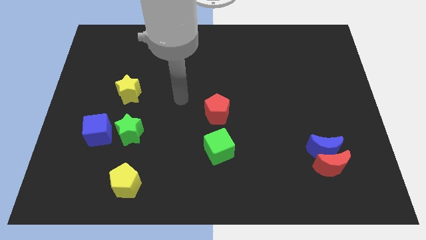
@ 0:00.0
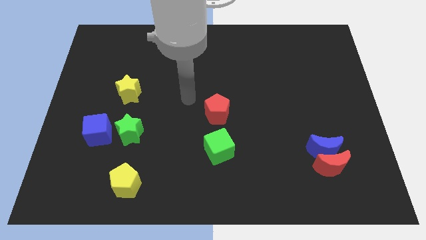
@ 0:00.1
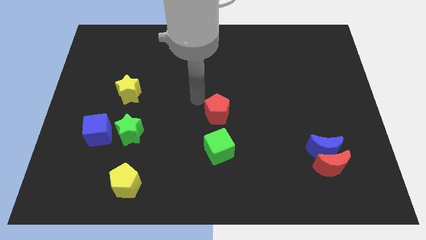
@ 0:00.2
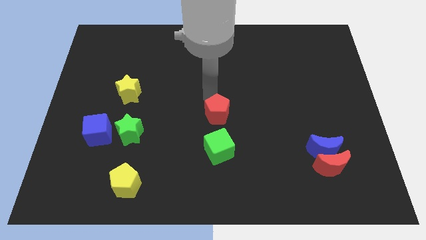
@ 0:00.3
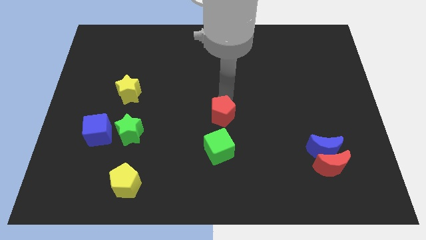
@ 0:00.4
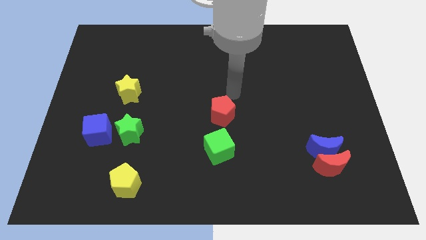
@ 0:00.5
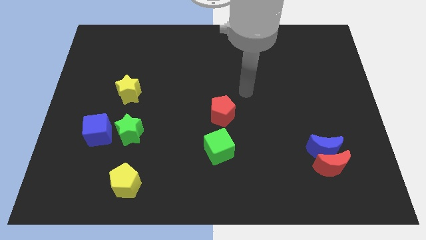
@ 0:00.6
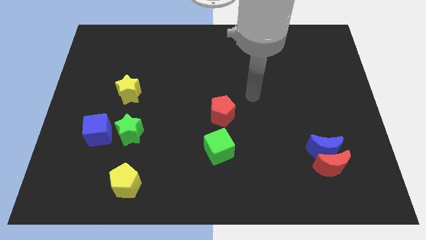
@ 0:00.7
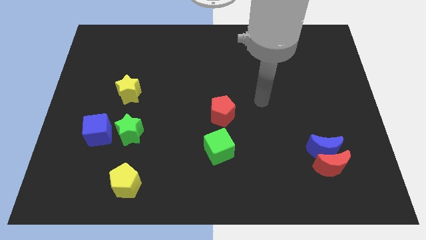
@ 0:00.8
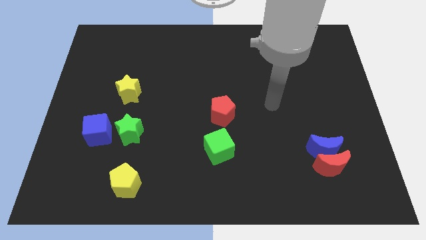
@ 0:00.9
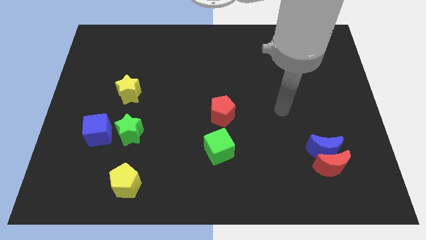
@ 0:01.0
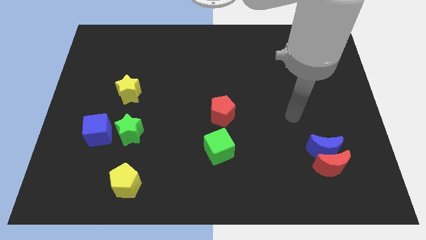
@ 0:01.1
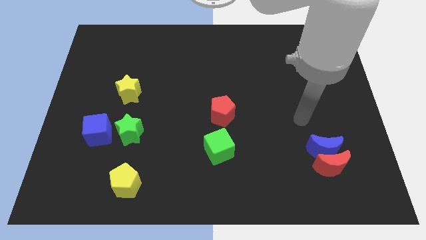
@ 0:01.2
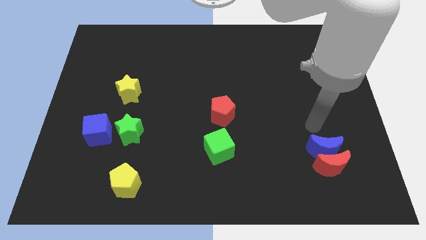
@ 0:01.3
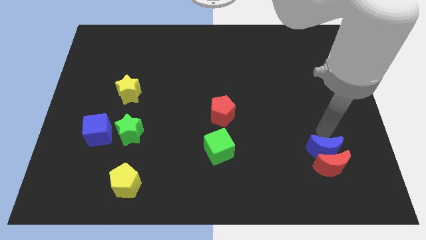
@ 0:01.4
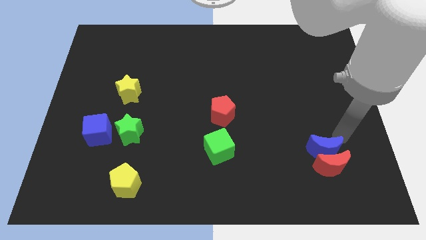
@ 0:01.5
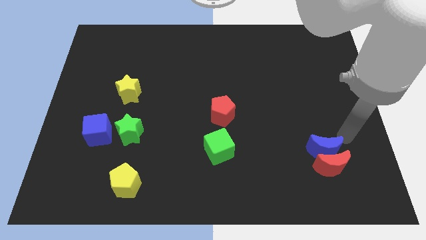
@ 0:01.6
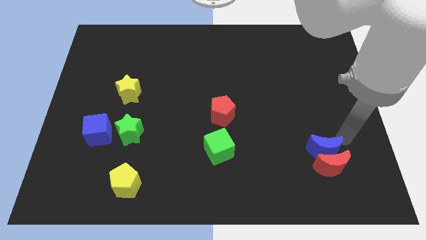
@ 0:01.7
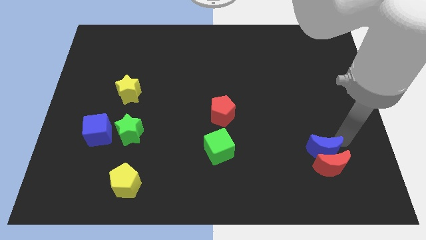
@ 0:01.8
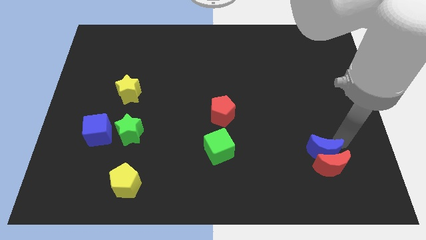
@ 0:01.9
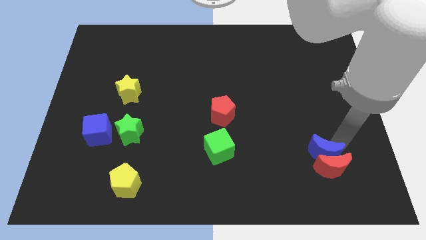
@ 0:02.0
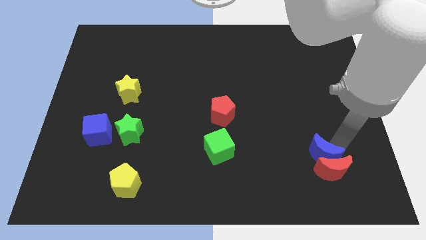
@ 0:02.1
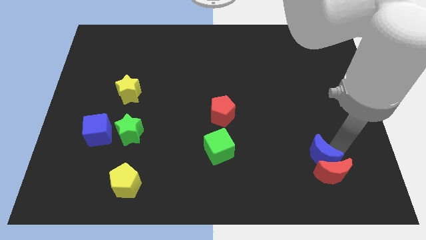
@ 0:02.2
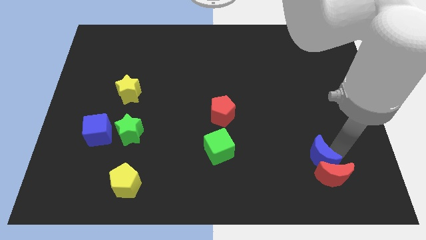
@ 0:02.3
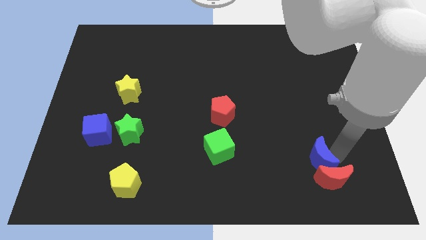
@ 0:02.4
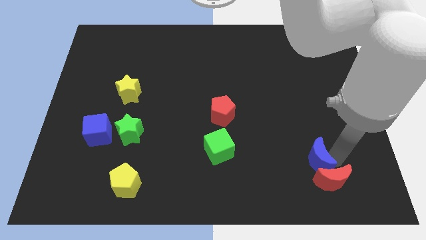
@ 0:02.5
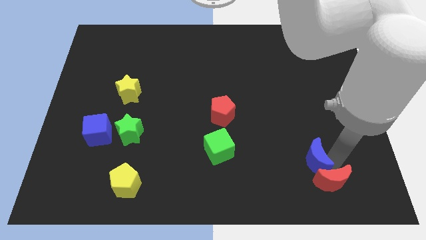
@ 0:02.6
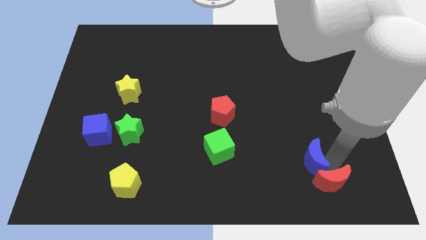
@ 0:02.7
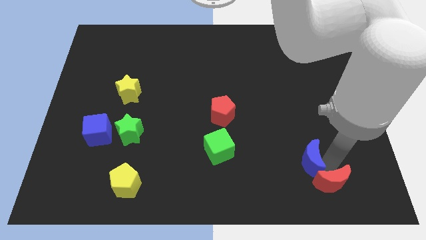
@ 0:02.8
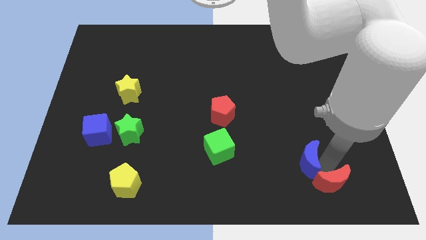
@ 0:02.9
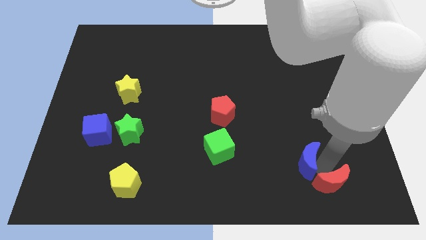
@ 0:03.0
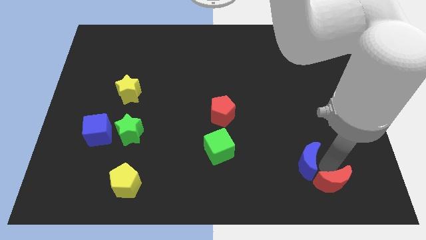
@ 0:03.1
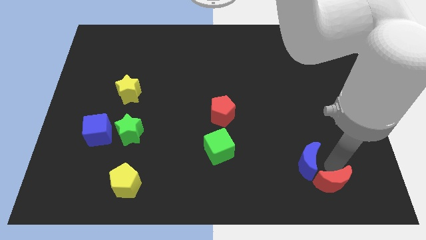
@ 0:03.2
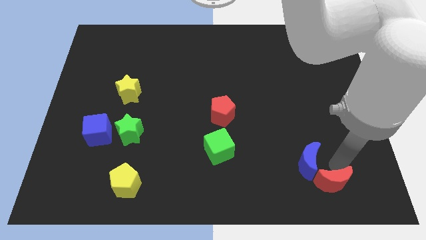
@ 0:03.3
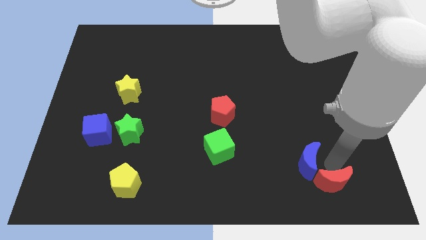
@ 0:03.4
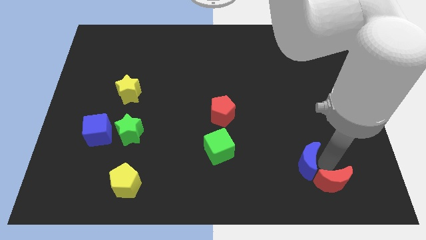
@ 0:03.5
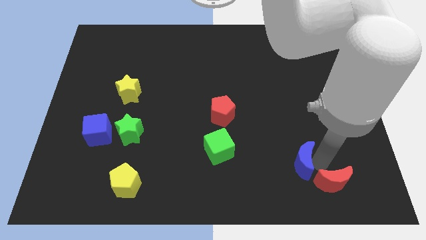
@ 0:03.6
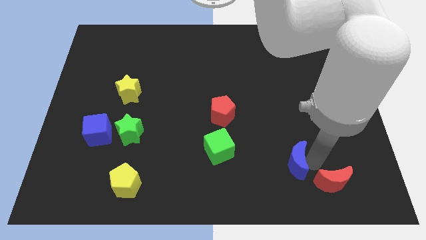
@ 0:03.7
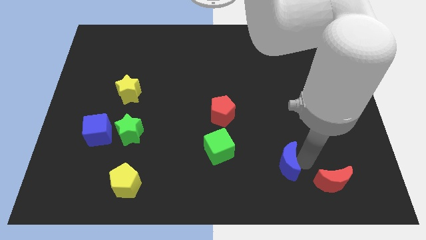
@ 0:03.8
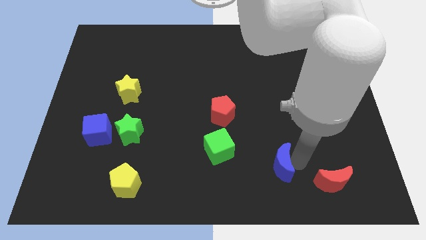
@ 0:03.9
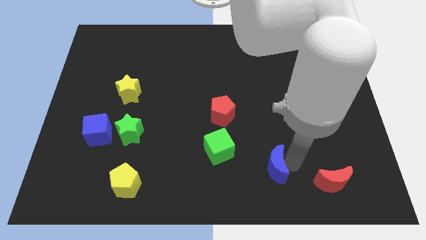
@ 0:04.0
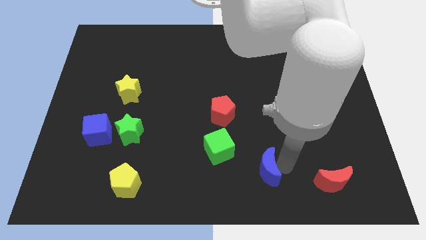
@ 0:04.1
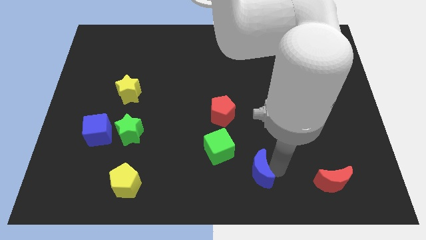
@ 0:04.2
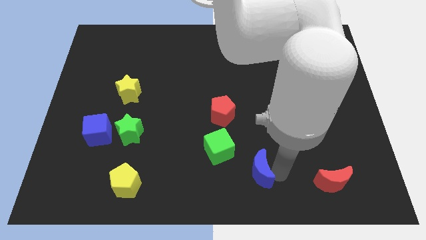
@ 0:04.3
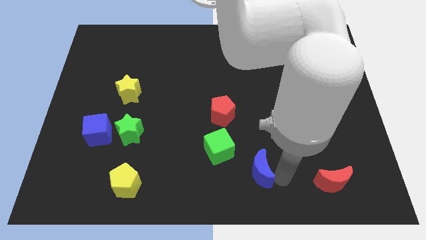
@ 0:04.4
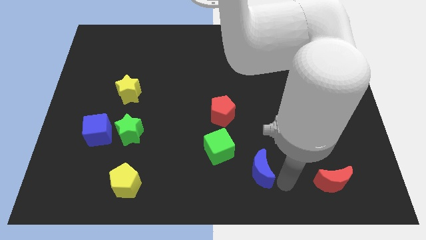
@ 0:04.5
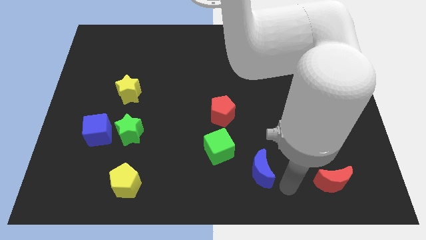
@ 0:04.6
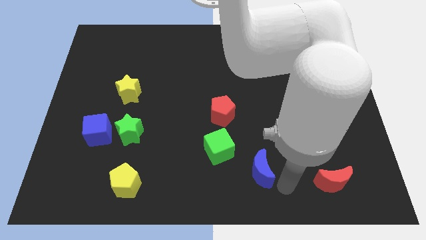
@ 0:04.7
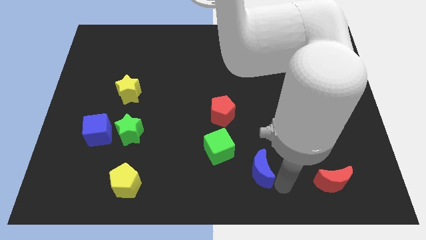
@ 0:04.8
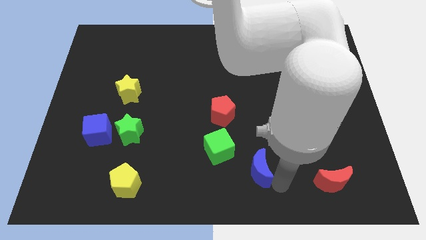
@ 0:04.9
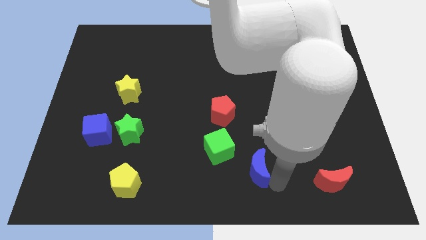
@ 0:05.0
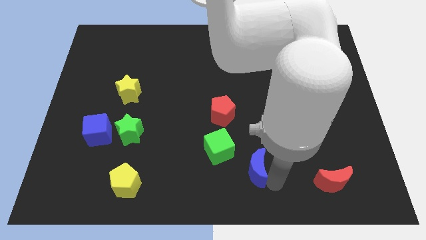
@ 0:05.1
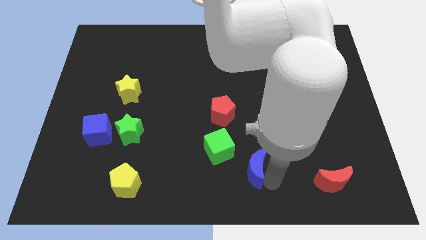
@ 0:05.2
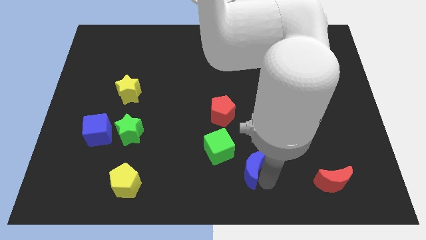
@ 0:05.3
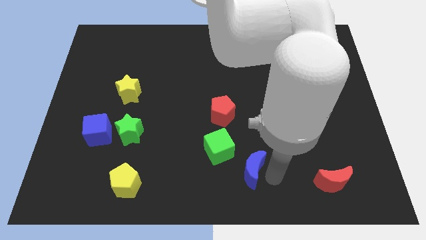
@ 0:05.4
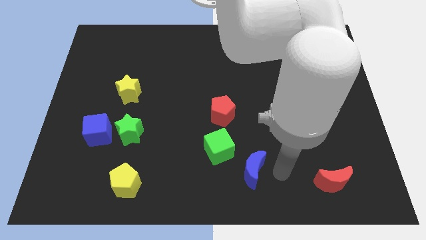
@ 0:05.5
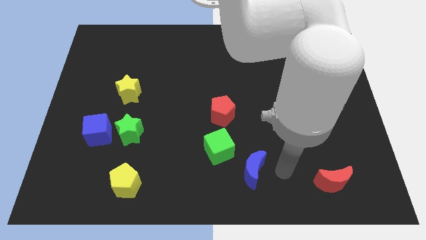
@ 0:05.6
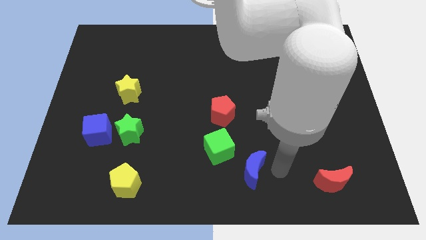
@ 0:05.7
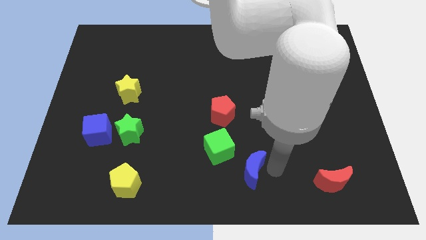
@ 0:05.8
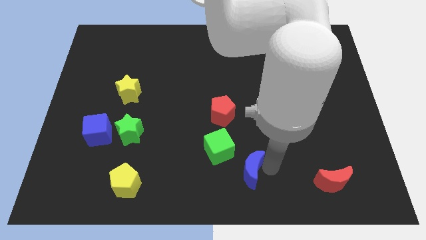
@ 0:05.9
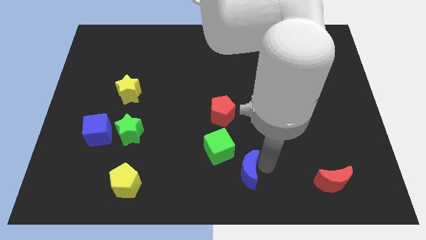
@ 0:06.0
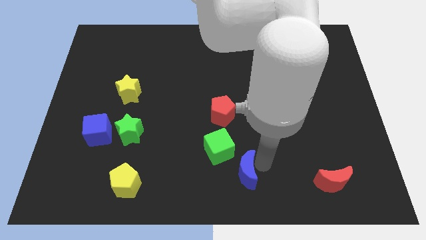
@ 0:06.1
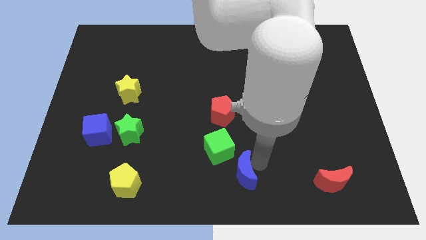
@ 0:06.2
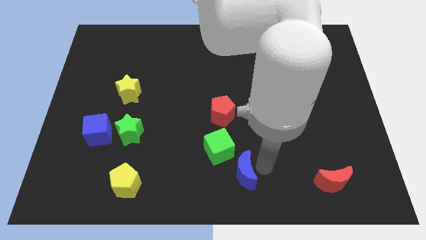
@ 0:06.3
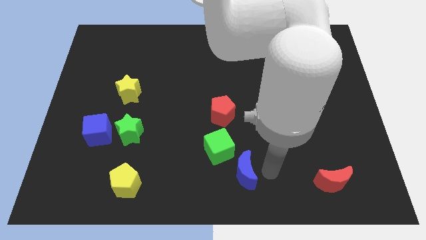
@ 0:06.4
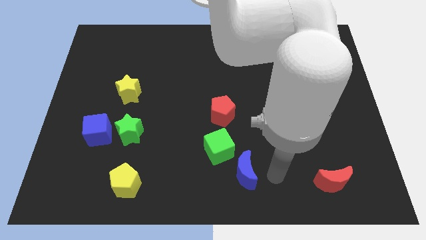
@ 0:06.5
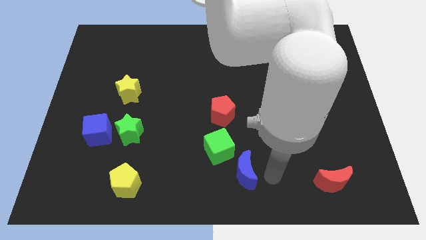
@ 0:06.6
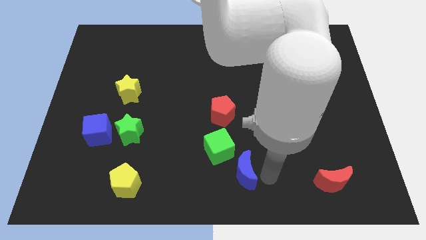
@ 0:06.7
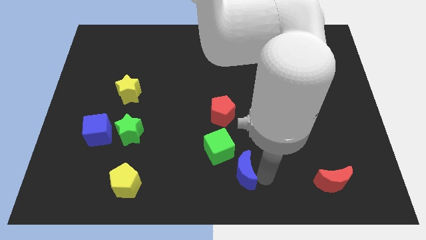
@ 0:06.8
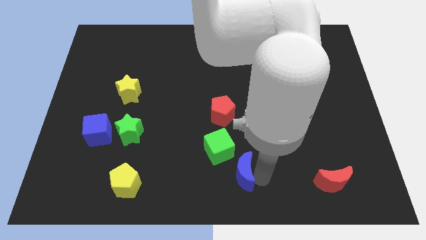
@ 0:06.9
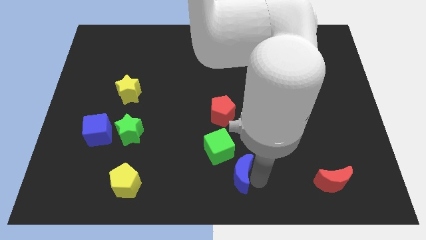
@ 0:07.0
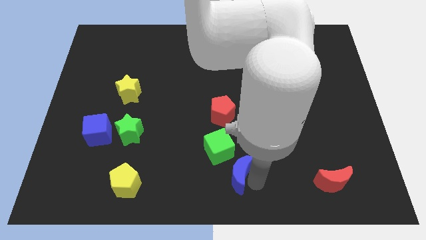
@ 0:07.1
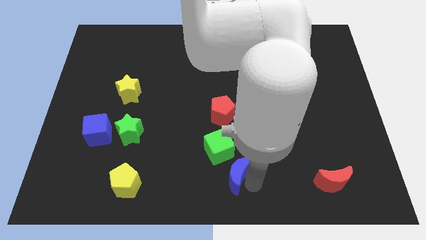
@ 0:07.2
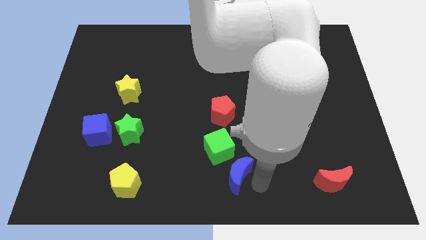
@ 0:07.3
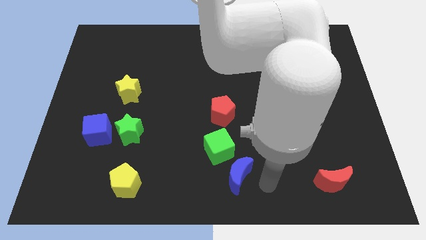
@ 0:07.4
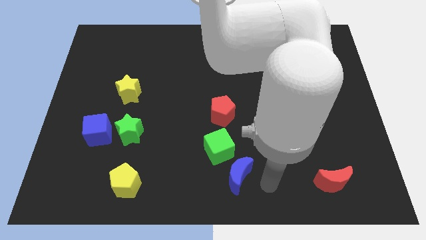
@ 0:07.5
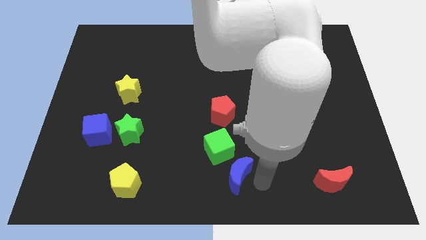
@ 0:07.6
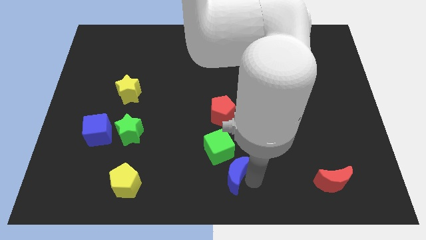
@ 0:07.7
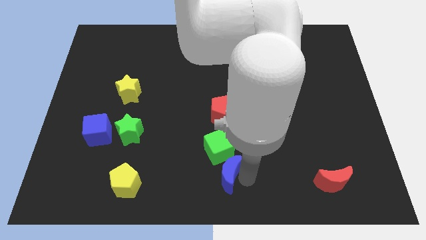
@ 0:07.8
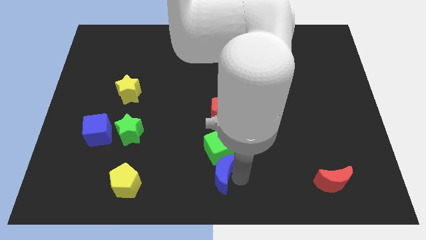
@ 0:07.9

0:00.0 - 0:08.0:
slide the blue moon diagonally down and to the left of the green cube
